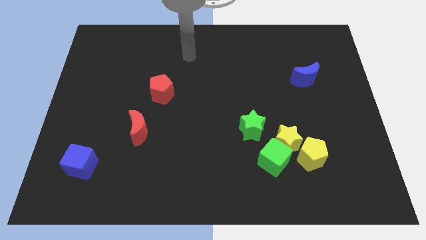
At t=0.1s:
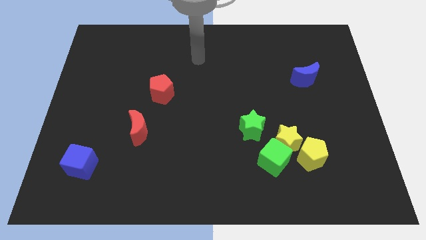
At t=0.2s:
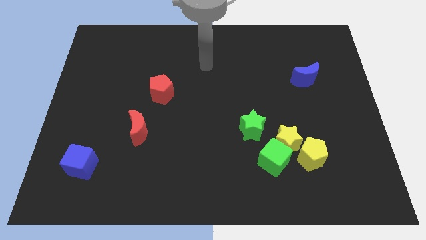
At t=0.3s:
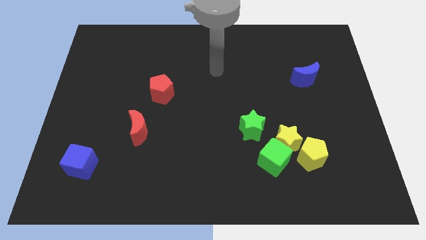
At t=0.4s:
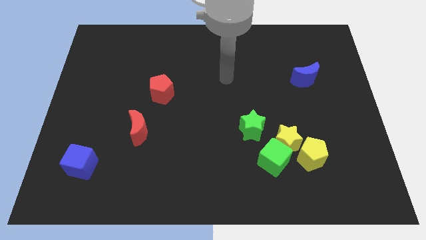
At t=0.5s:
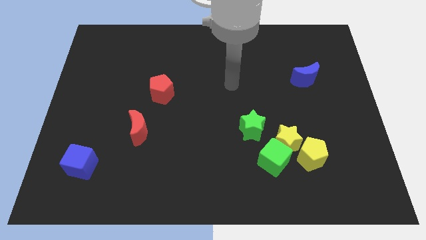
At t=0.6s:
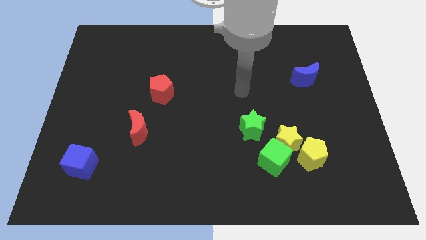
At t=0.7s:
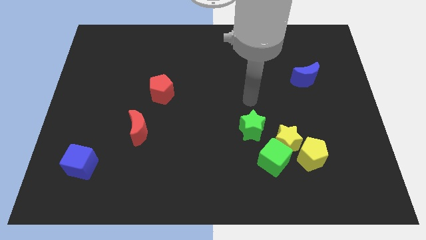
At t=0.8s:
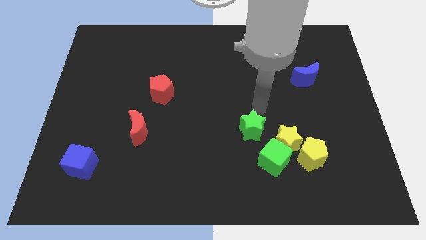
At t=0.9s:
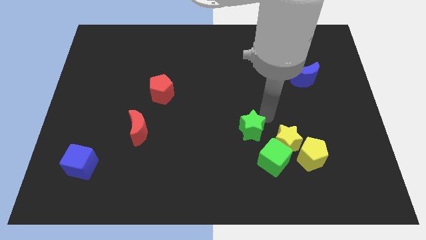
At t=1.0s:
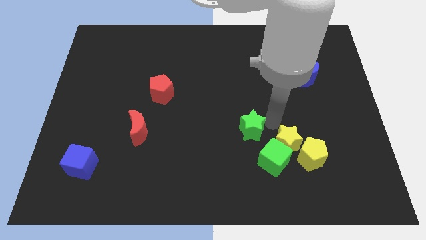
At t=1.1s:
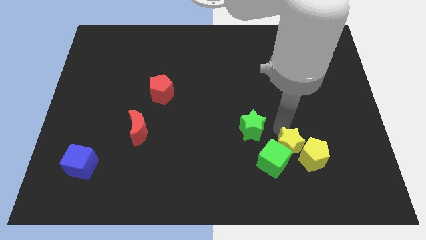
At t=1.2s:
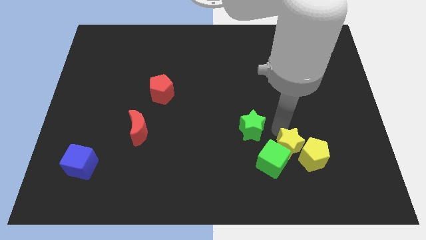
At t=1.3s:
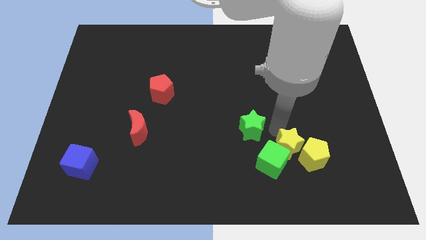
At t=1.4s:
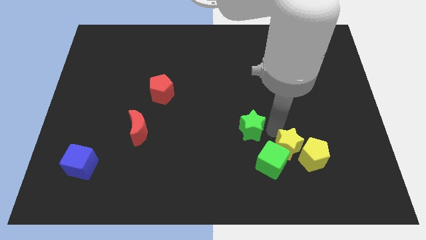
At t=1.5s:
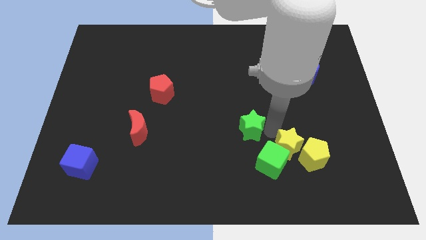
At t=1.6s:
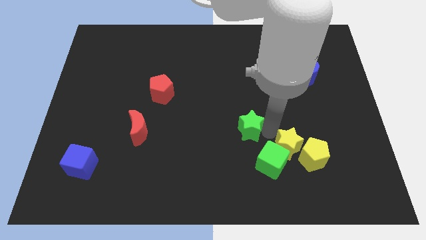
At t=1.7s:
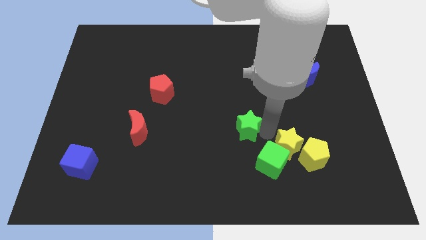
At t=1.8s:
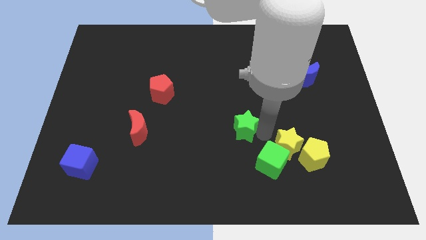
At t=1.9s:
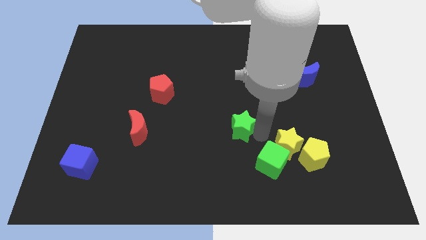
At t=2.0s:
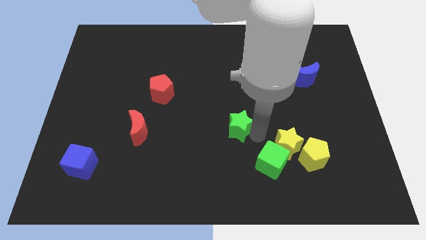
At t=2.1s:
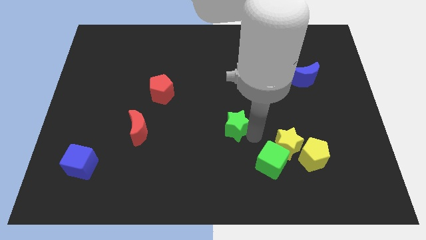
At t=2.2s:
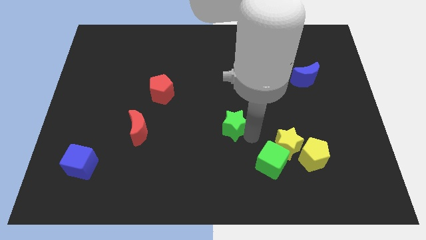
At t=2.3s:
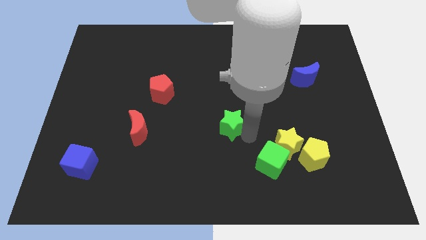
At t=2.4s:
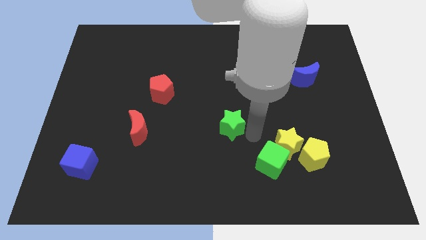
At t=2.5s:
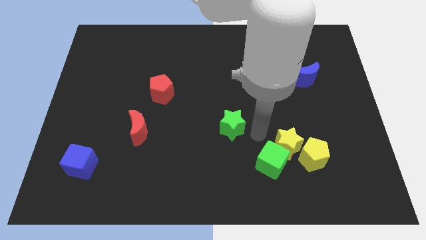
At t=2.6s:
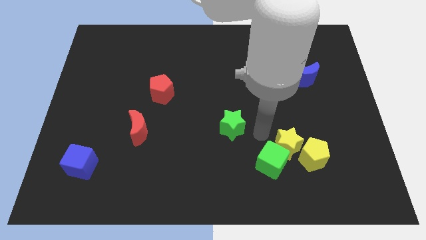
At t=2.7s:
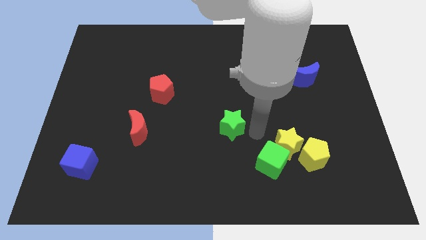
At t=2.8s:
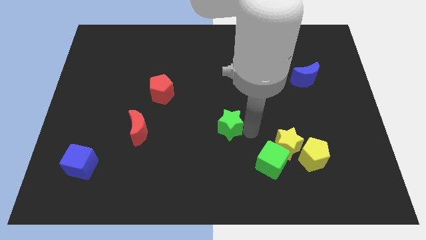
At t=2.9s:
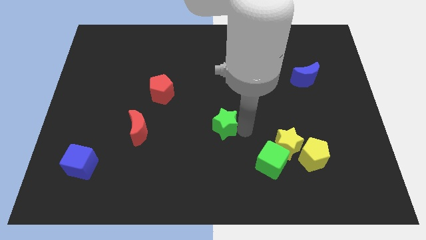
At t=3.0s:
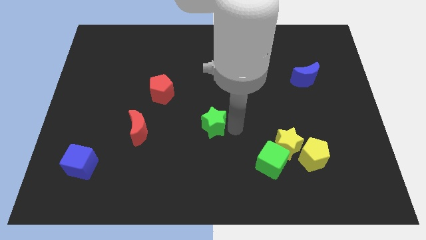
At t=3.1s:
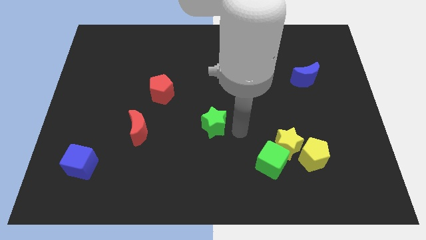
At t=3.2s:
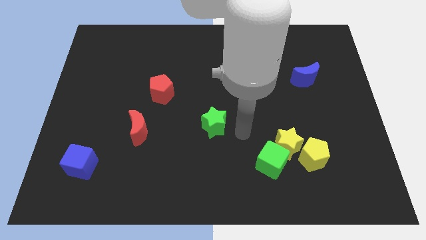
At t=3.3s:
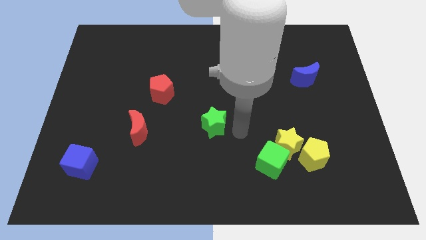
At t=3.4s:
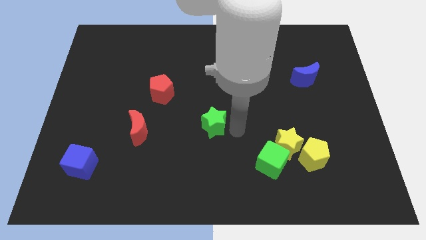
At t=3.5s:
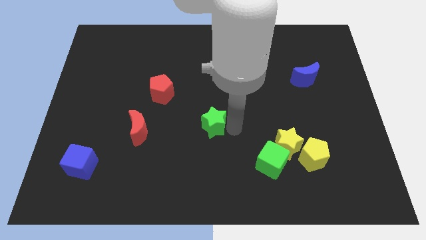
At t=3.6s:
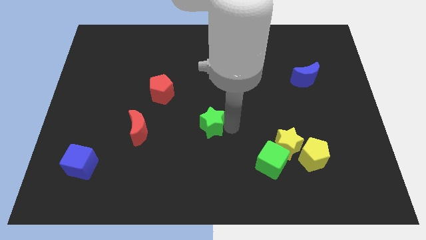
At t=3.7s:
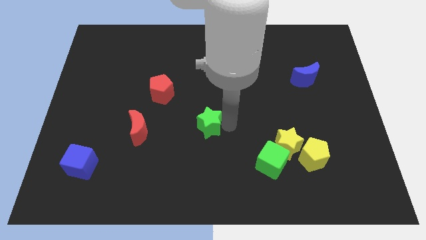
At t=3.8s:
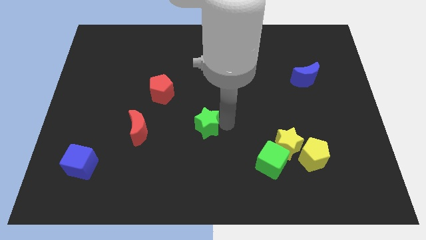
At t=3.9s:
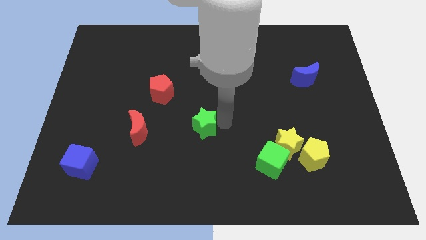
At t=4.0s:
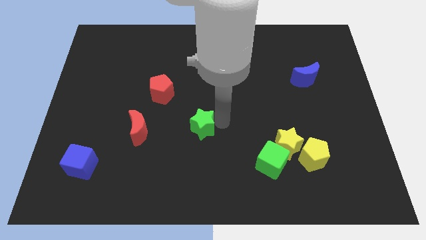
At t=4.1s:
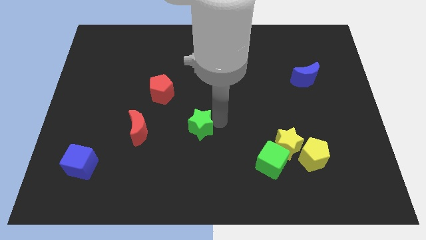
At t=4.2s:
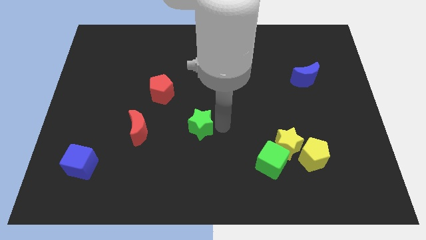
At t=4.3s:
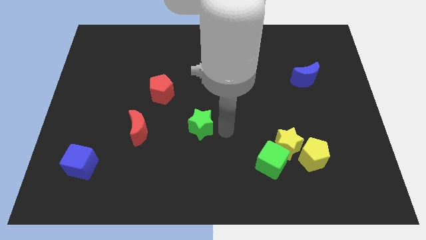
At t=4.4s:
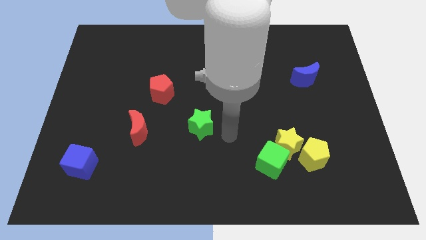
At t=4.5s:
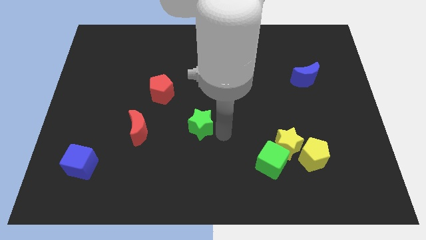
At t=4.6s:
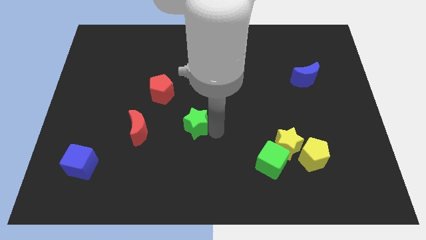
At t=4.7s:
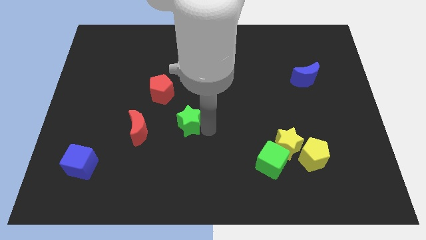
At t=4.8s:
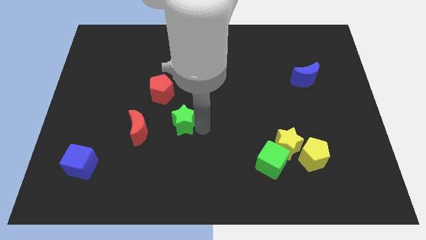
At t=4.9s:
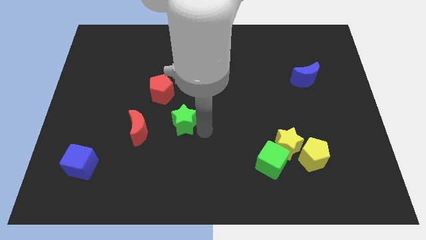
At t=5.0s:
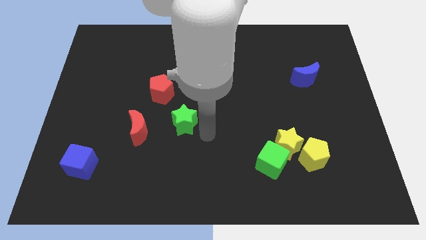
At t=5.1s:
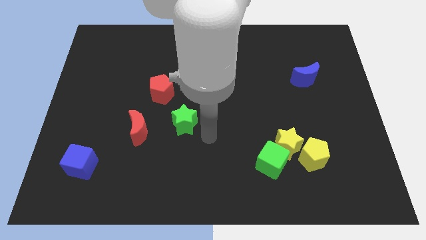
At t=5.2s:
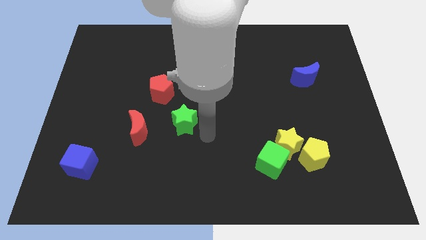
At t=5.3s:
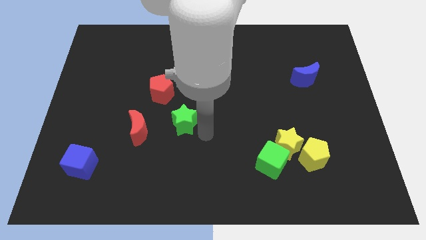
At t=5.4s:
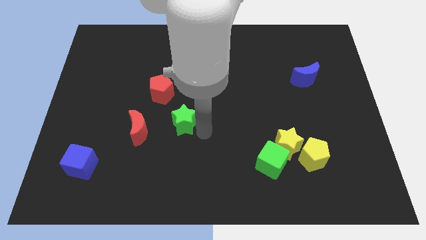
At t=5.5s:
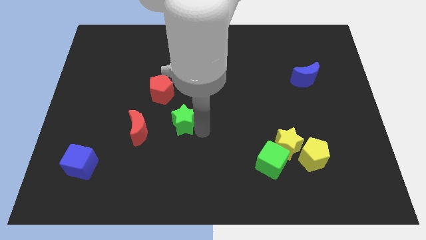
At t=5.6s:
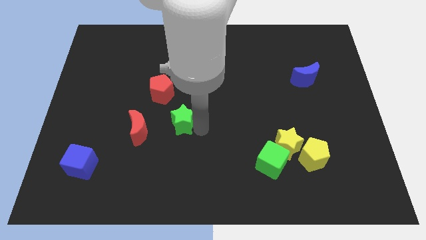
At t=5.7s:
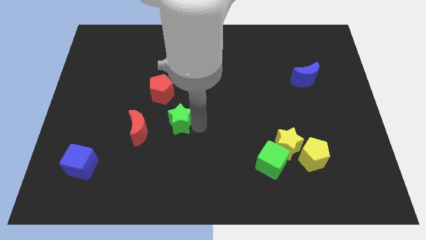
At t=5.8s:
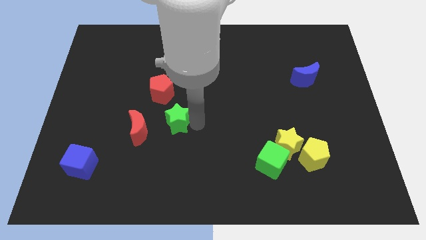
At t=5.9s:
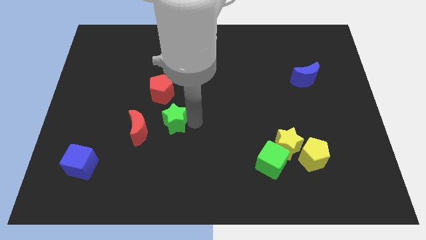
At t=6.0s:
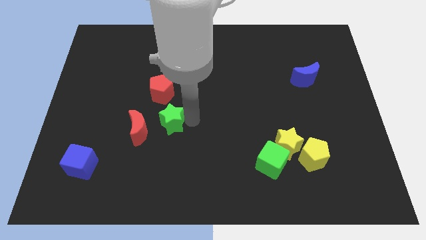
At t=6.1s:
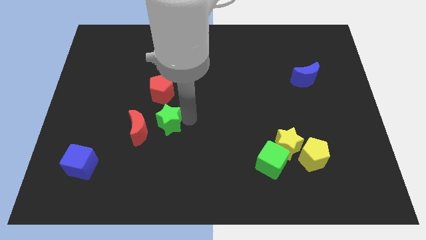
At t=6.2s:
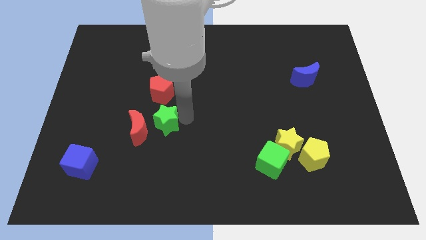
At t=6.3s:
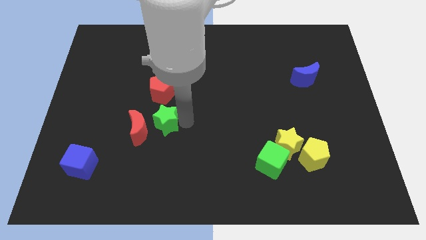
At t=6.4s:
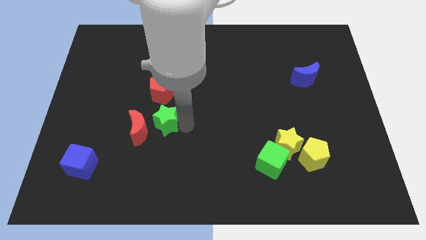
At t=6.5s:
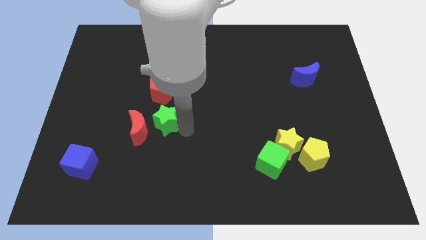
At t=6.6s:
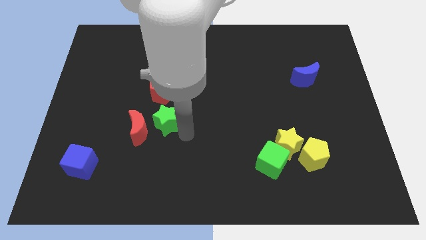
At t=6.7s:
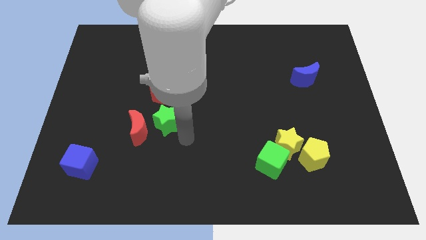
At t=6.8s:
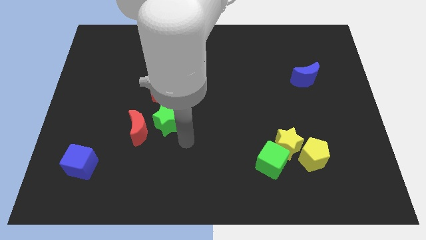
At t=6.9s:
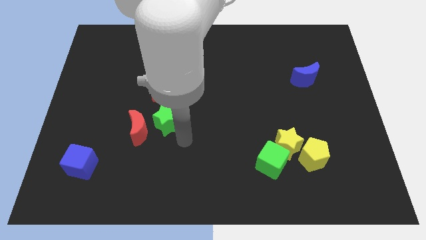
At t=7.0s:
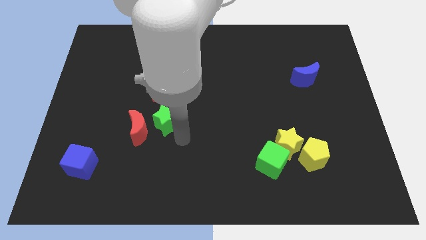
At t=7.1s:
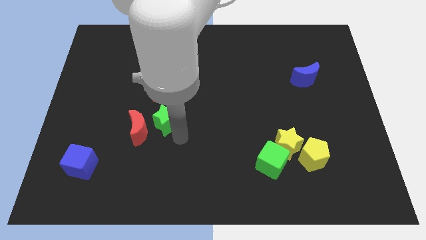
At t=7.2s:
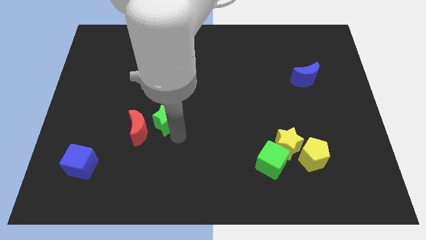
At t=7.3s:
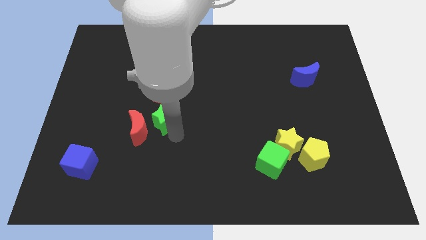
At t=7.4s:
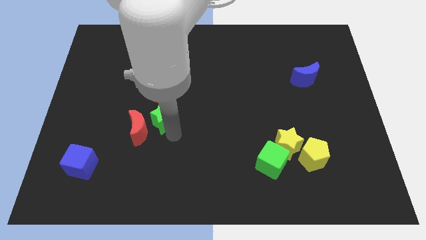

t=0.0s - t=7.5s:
move the green star to the left

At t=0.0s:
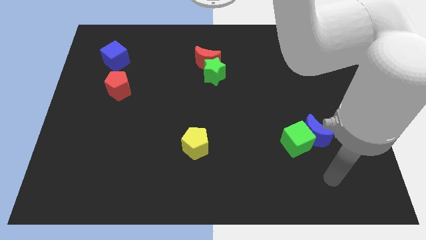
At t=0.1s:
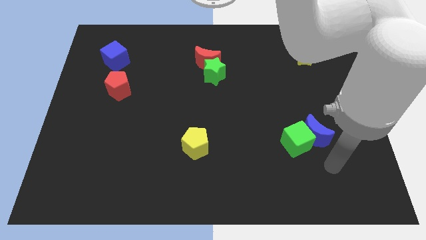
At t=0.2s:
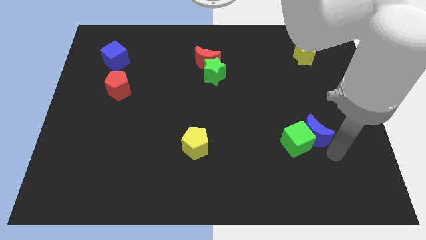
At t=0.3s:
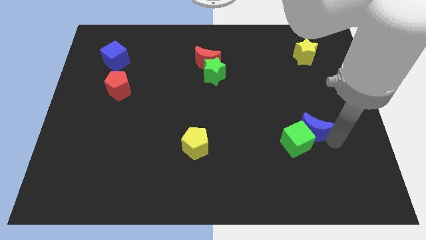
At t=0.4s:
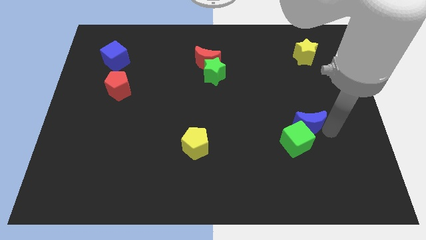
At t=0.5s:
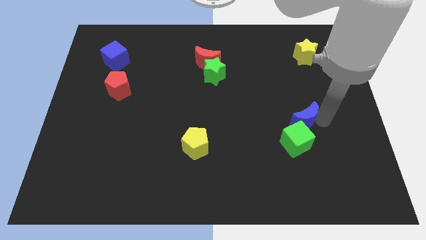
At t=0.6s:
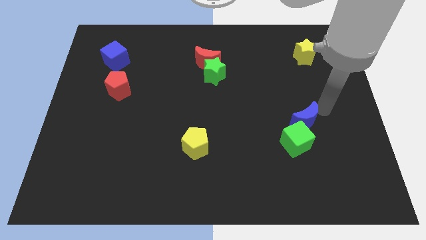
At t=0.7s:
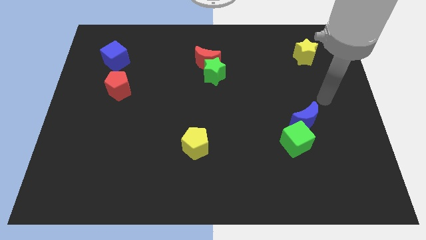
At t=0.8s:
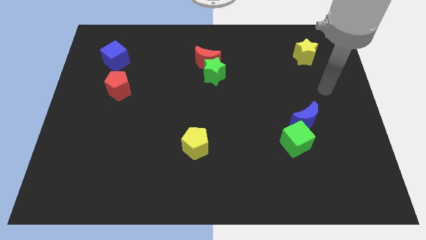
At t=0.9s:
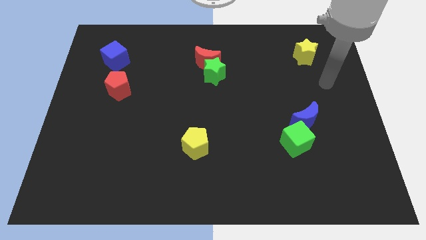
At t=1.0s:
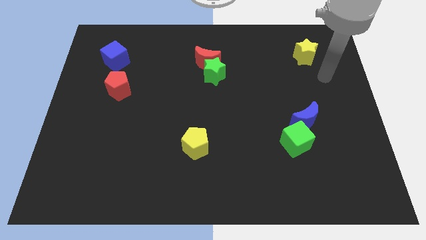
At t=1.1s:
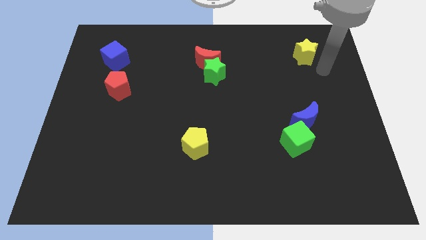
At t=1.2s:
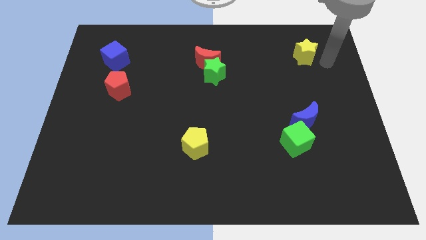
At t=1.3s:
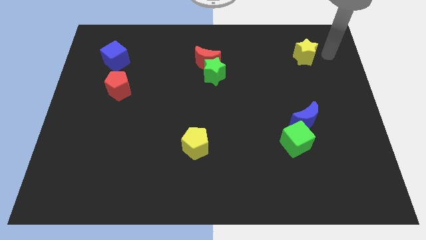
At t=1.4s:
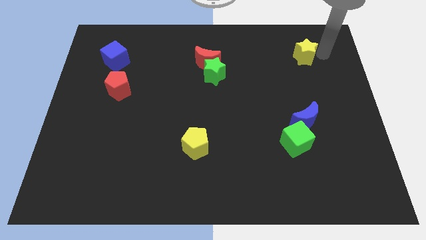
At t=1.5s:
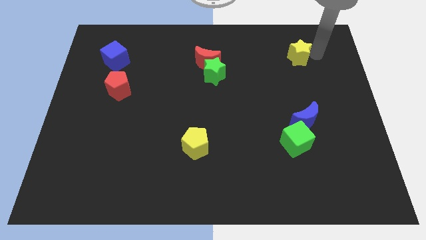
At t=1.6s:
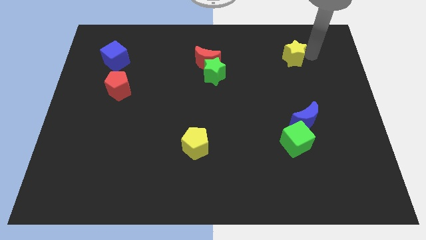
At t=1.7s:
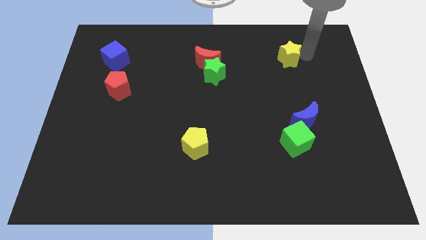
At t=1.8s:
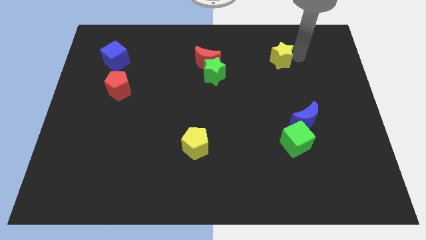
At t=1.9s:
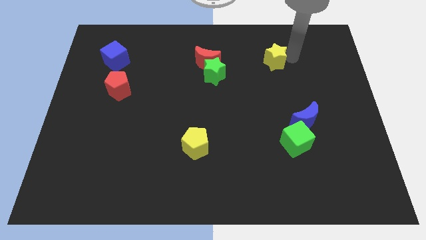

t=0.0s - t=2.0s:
slide the yellow star a bit to the left
